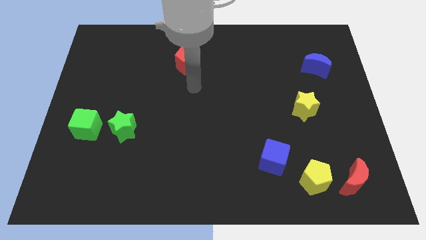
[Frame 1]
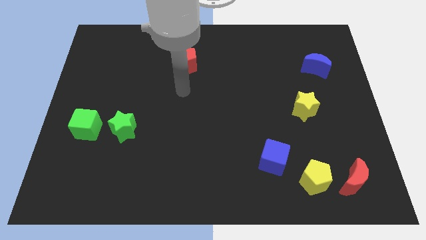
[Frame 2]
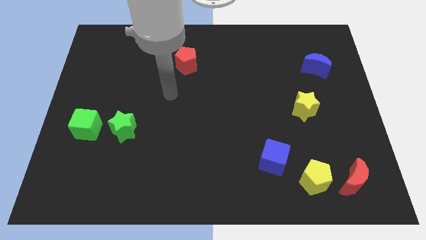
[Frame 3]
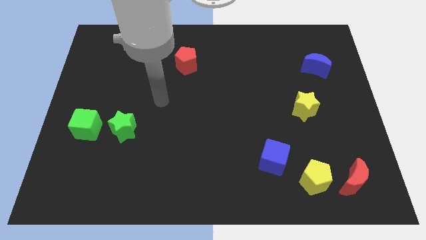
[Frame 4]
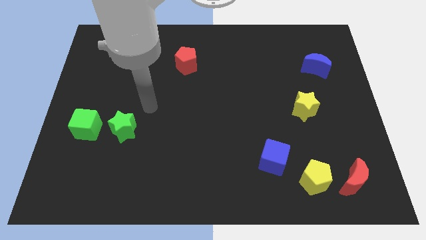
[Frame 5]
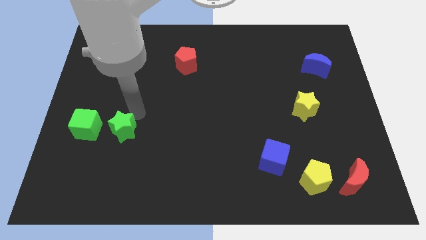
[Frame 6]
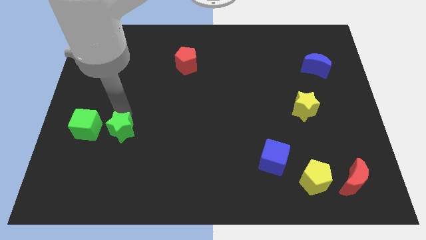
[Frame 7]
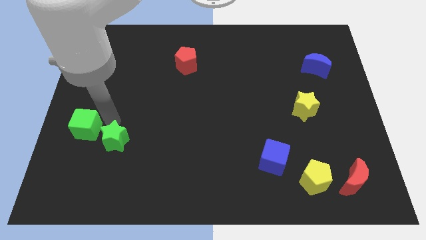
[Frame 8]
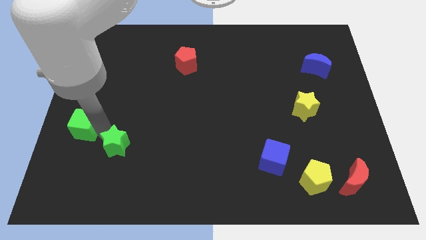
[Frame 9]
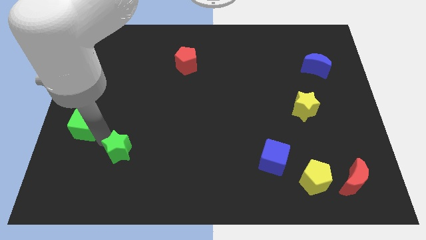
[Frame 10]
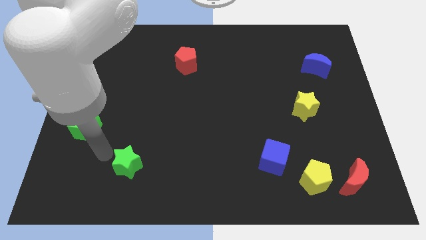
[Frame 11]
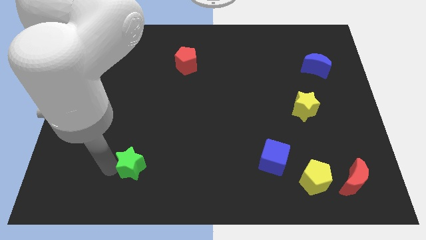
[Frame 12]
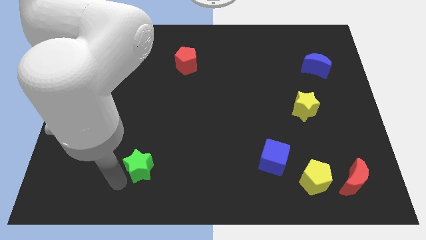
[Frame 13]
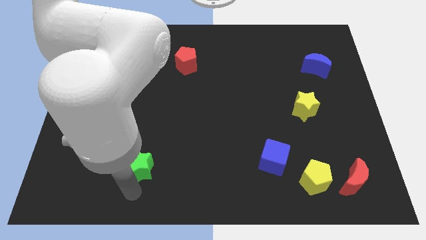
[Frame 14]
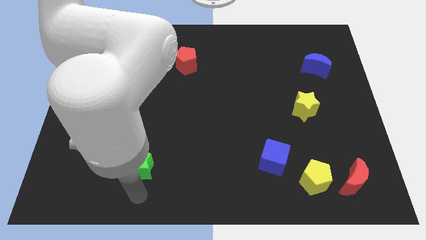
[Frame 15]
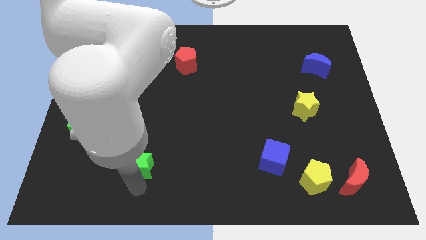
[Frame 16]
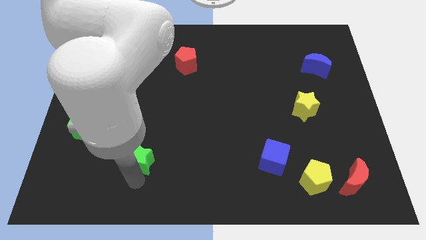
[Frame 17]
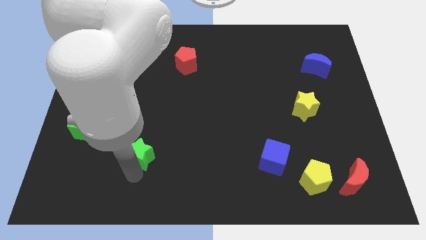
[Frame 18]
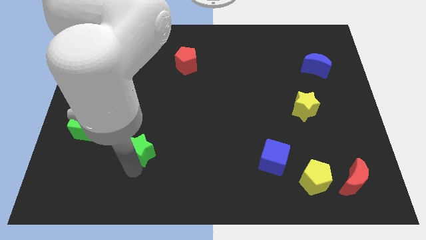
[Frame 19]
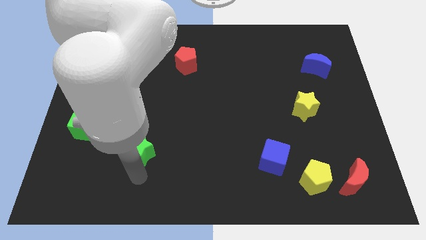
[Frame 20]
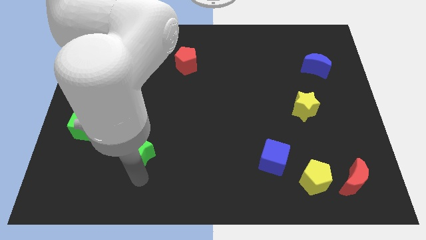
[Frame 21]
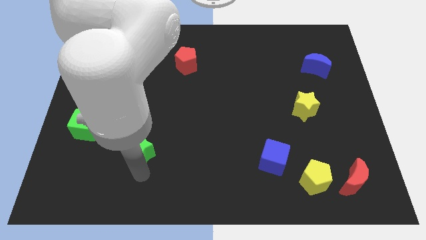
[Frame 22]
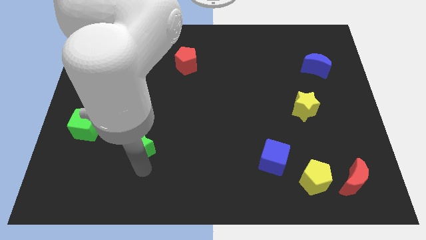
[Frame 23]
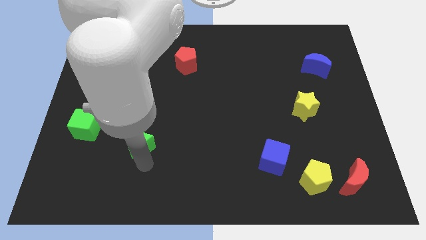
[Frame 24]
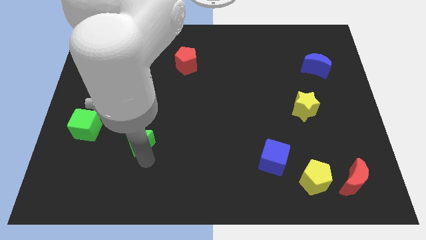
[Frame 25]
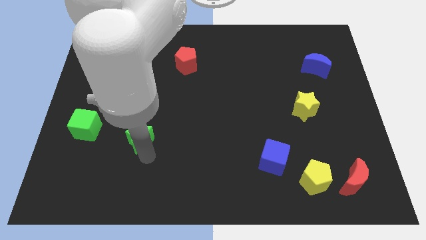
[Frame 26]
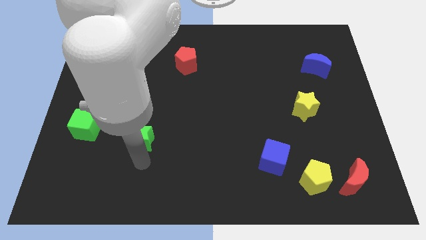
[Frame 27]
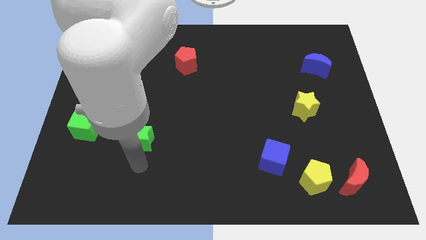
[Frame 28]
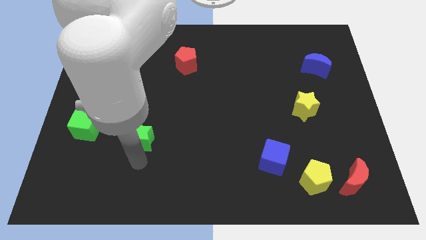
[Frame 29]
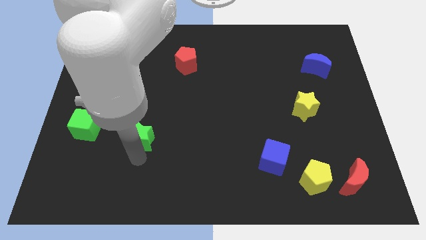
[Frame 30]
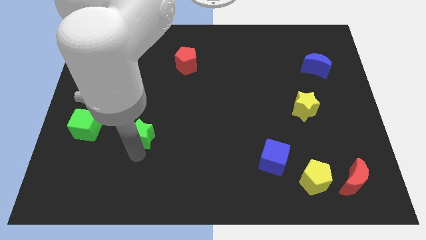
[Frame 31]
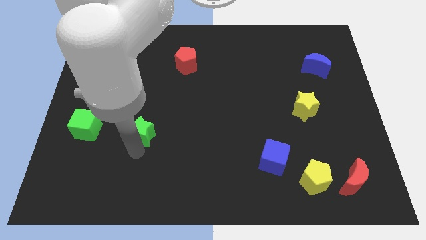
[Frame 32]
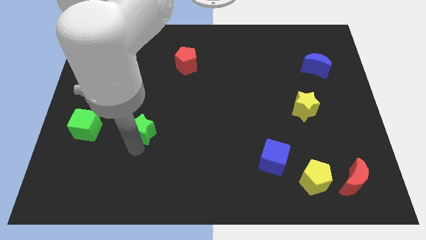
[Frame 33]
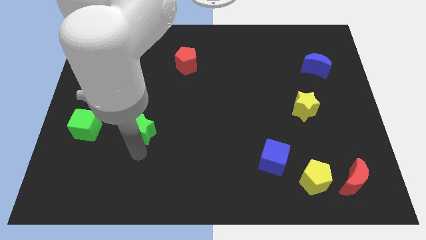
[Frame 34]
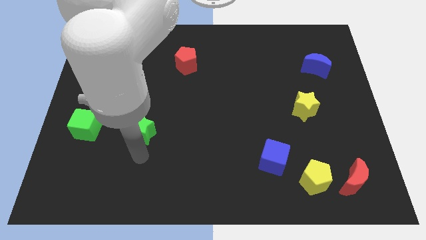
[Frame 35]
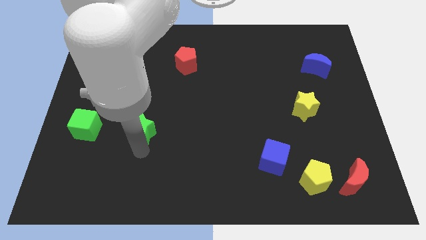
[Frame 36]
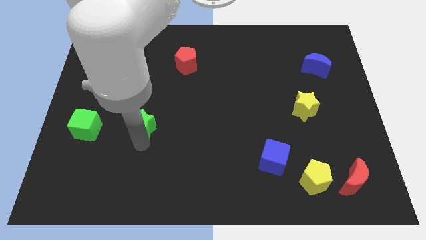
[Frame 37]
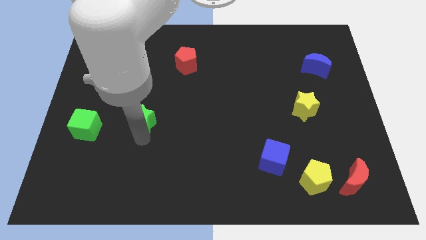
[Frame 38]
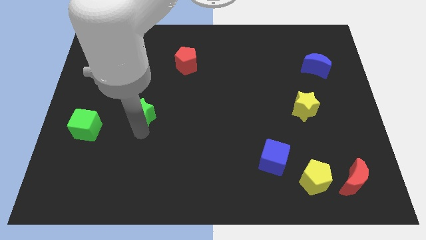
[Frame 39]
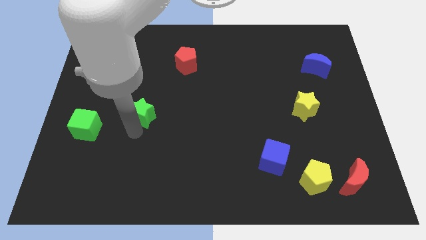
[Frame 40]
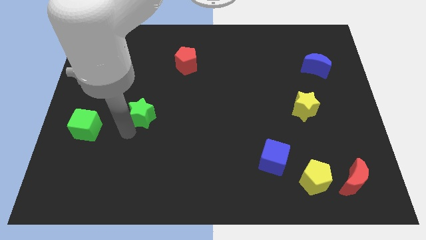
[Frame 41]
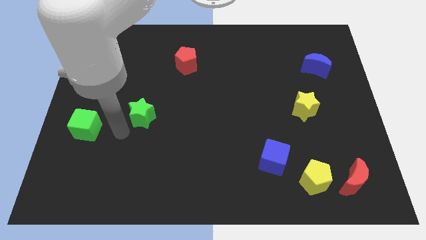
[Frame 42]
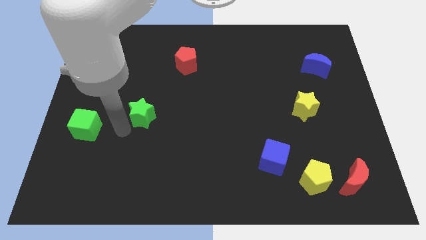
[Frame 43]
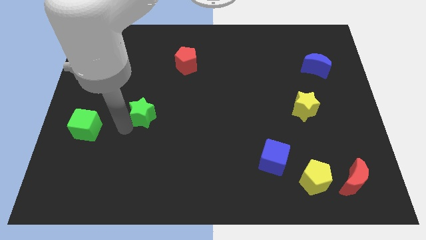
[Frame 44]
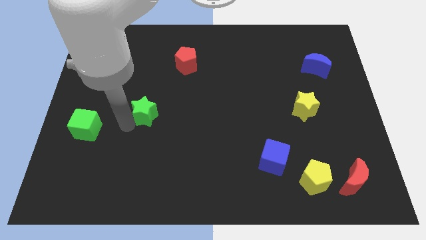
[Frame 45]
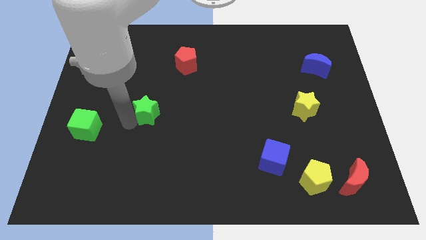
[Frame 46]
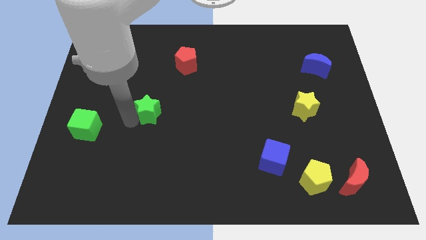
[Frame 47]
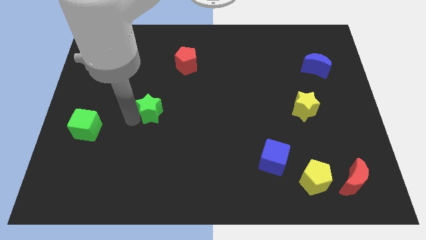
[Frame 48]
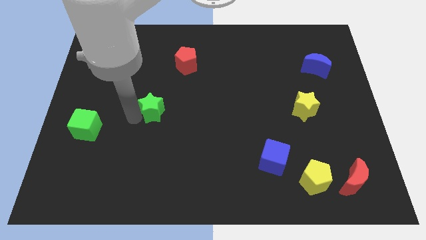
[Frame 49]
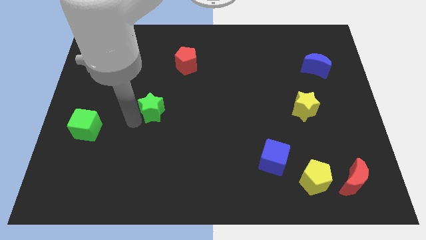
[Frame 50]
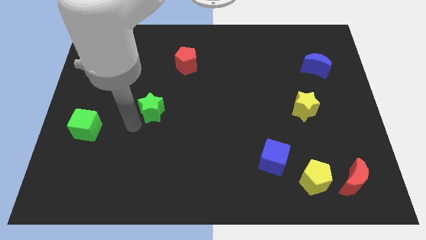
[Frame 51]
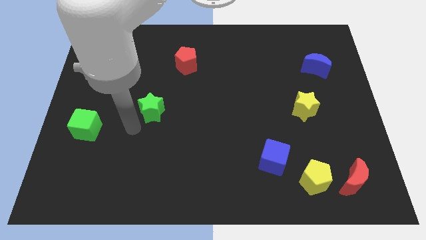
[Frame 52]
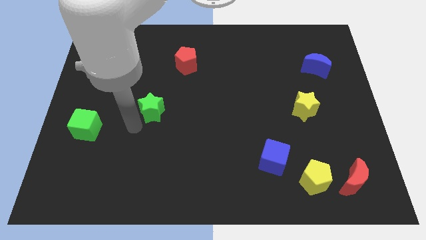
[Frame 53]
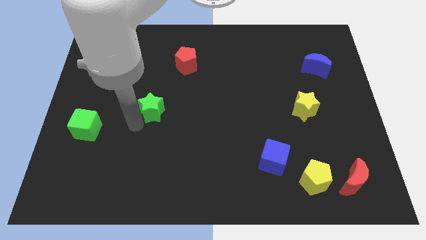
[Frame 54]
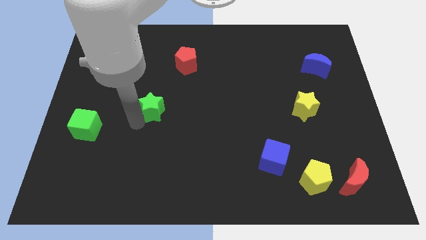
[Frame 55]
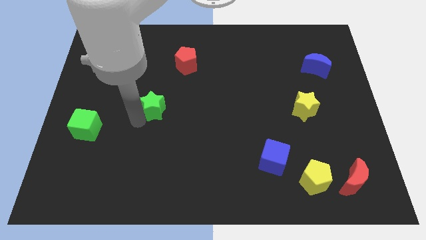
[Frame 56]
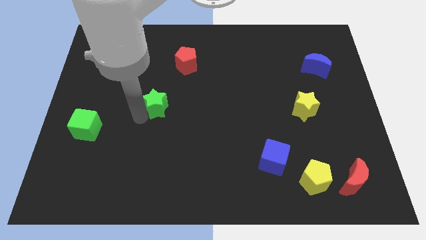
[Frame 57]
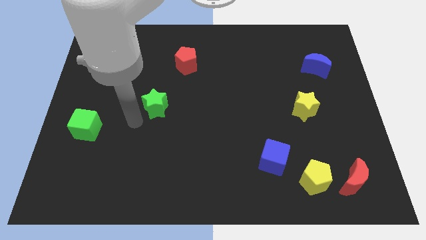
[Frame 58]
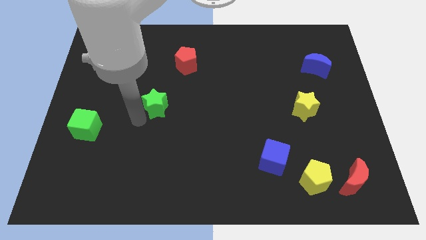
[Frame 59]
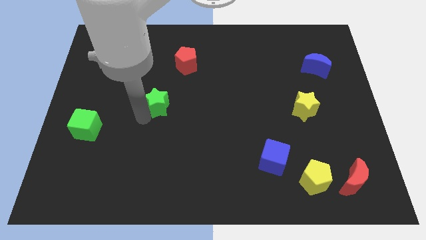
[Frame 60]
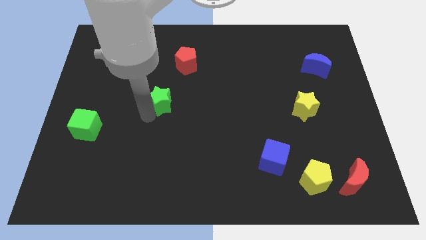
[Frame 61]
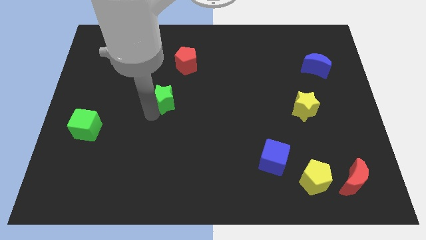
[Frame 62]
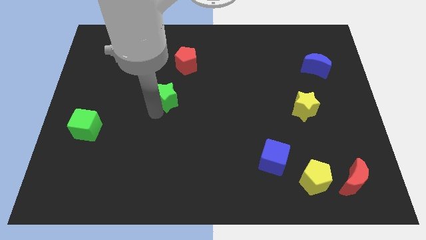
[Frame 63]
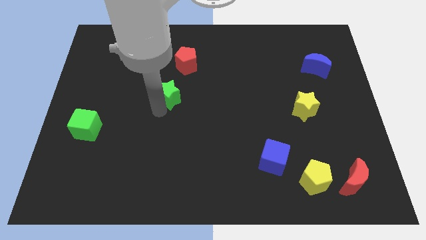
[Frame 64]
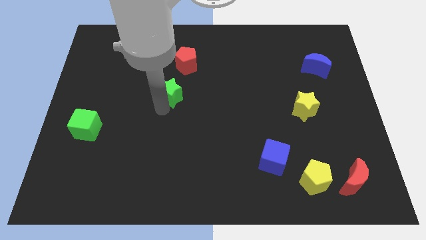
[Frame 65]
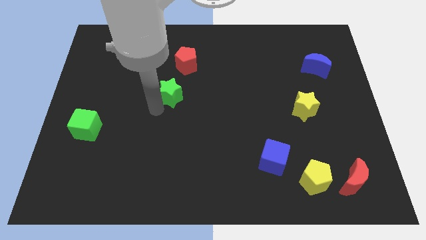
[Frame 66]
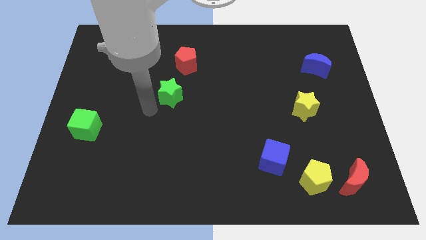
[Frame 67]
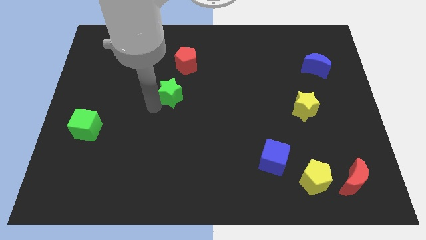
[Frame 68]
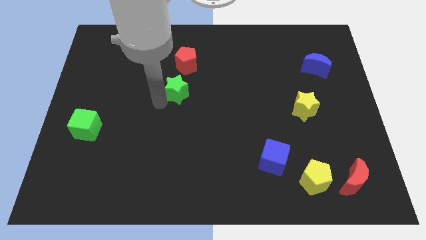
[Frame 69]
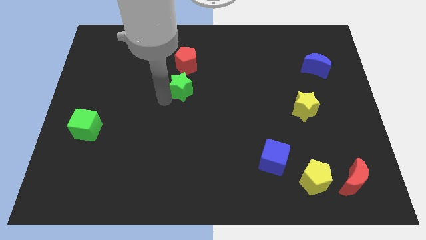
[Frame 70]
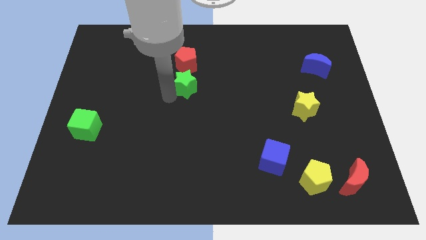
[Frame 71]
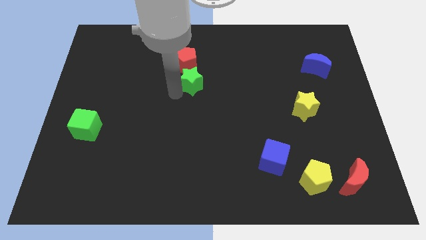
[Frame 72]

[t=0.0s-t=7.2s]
slide the green star upwards and right diagonally

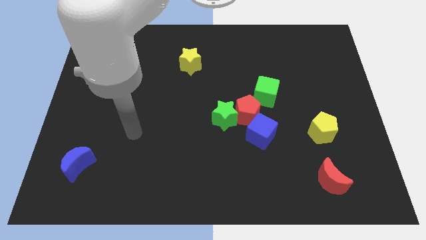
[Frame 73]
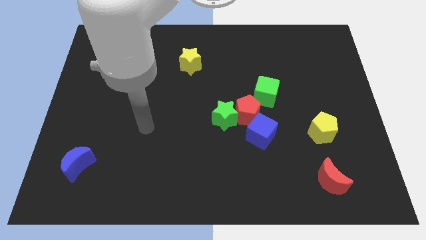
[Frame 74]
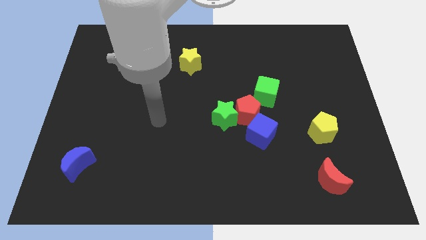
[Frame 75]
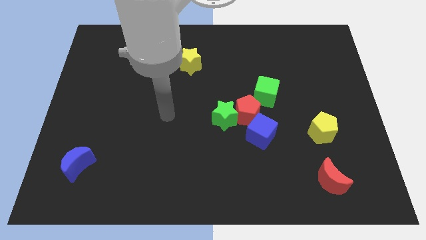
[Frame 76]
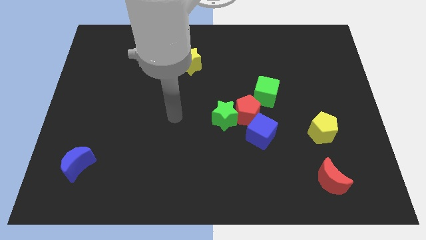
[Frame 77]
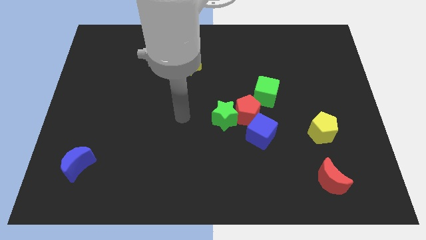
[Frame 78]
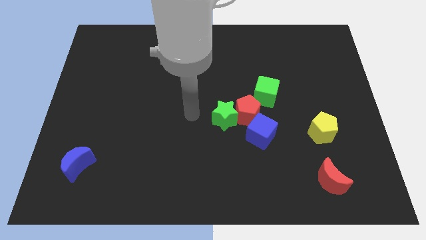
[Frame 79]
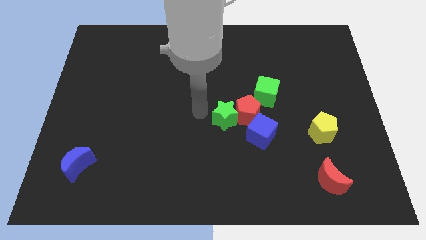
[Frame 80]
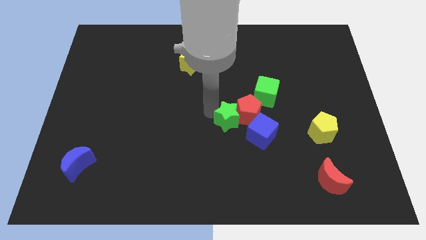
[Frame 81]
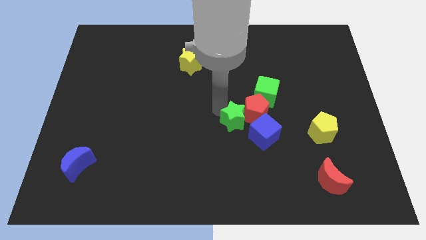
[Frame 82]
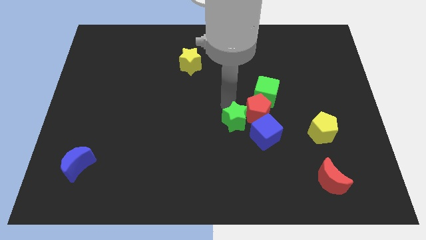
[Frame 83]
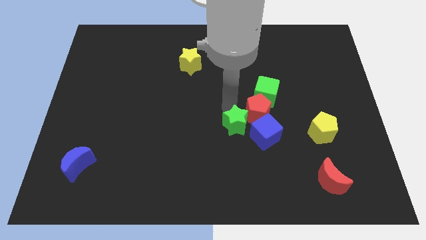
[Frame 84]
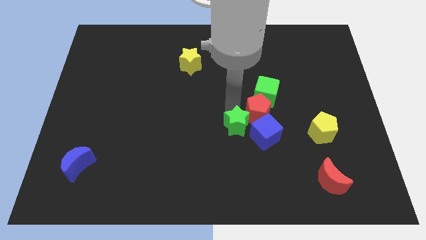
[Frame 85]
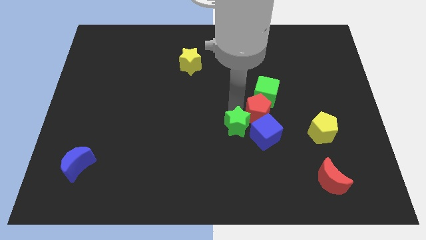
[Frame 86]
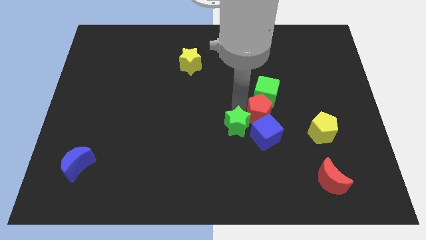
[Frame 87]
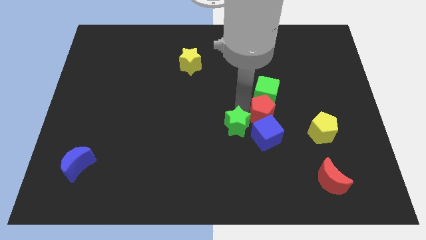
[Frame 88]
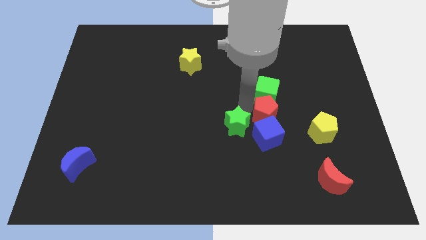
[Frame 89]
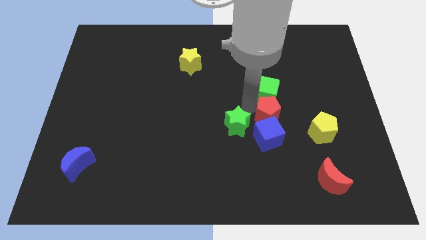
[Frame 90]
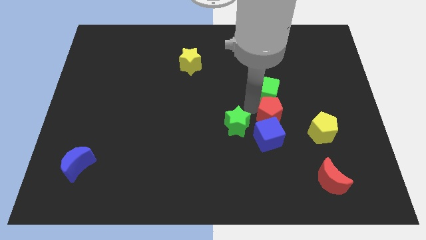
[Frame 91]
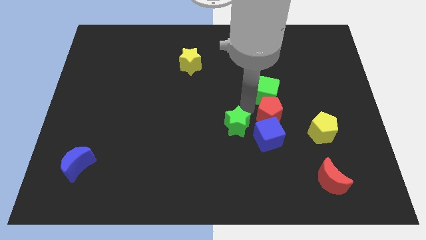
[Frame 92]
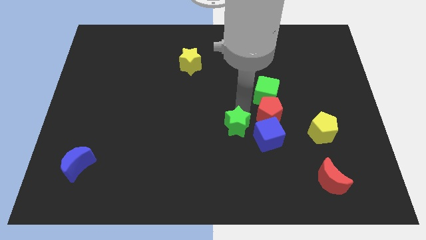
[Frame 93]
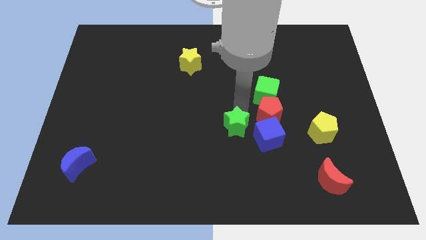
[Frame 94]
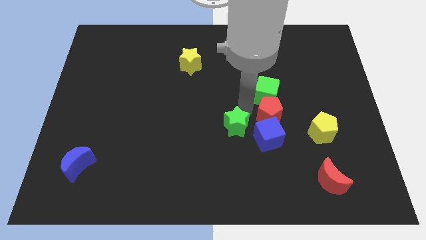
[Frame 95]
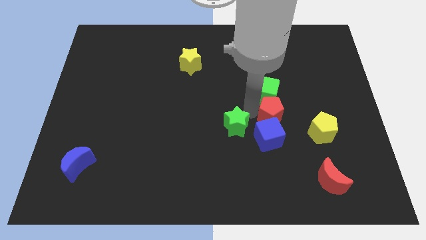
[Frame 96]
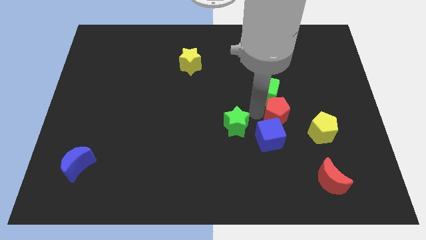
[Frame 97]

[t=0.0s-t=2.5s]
move the red pentagon right a little bit
